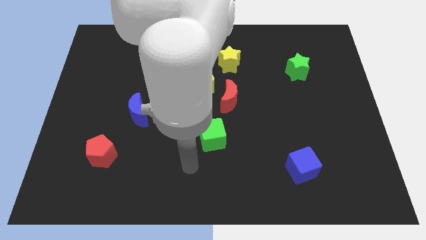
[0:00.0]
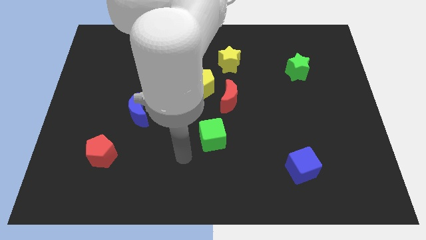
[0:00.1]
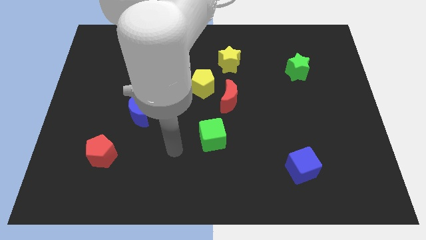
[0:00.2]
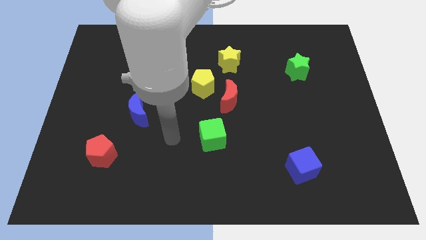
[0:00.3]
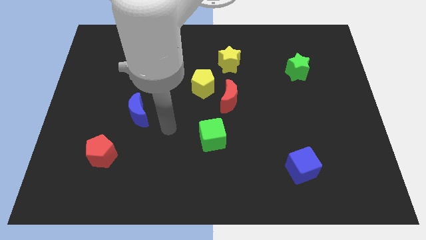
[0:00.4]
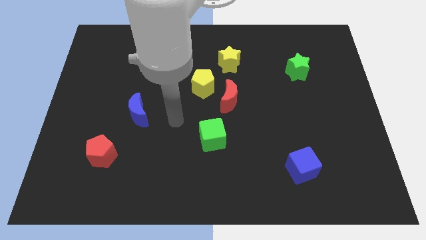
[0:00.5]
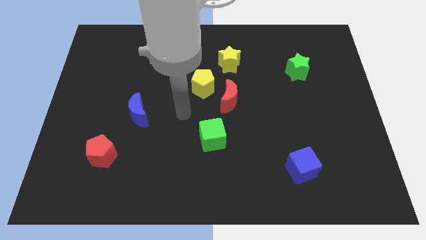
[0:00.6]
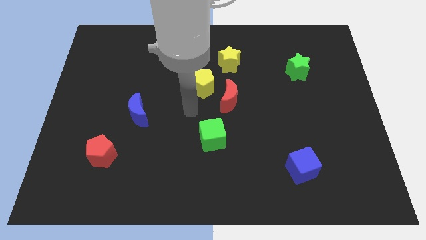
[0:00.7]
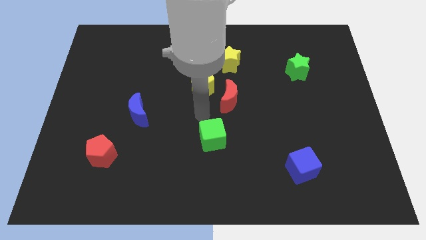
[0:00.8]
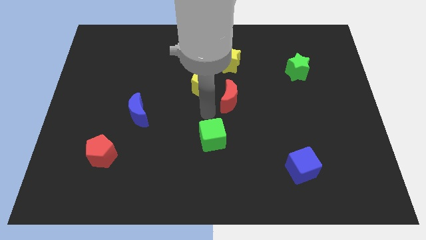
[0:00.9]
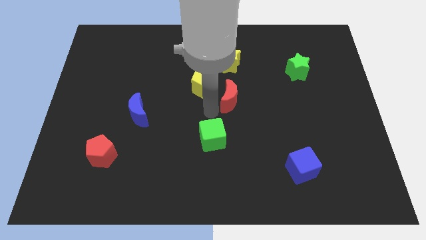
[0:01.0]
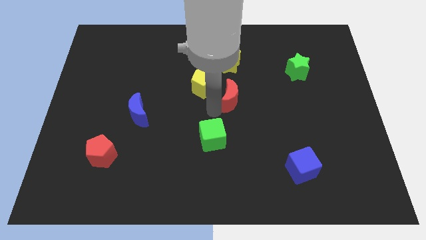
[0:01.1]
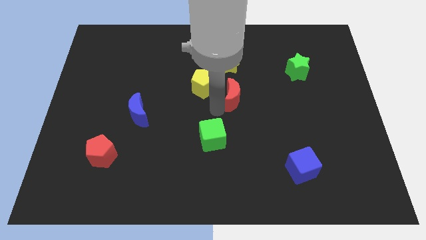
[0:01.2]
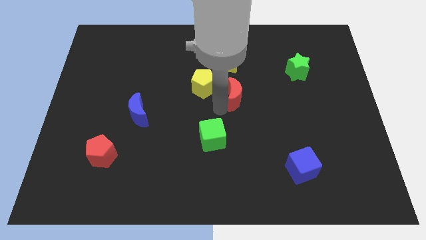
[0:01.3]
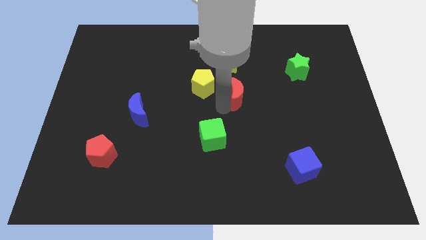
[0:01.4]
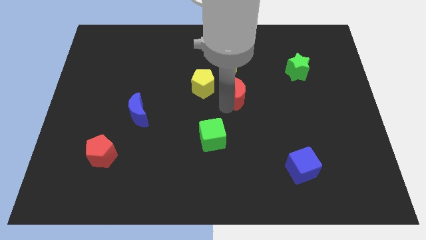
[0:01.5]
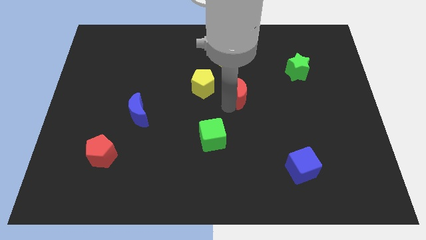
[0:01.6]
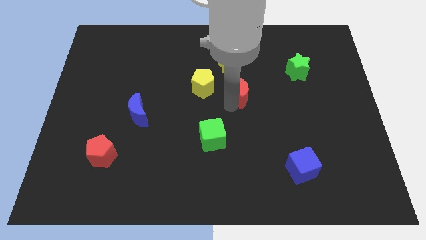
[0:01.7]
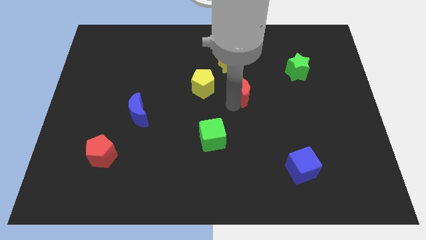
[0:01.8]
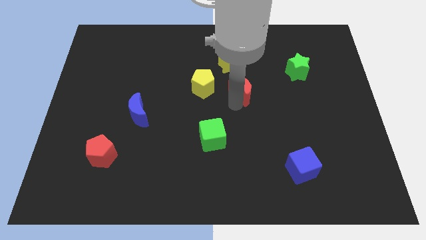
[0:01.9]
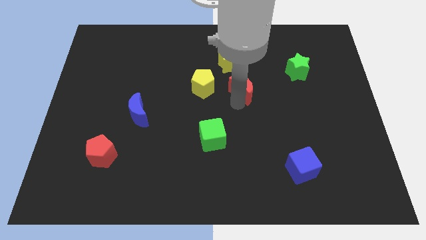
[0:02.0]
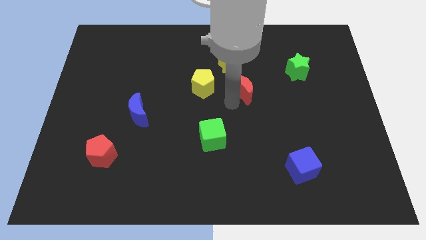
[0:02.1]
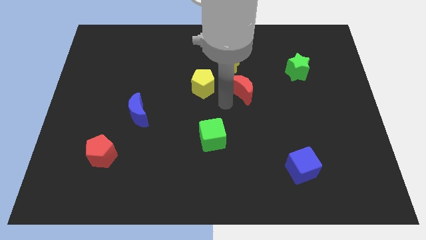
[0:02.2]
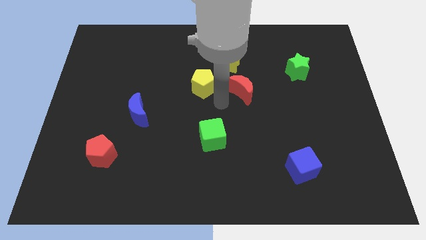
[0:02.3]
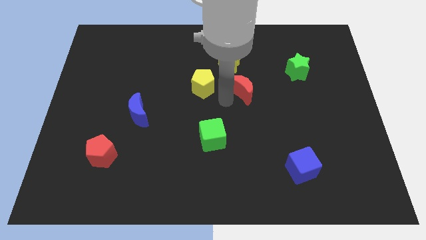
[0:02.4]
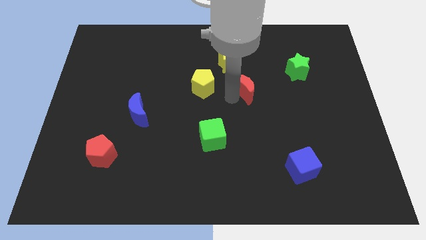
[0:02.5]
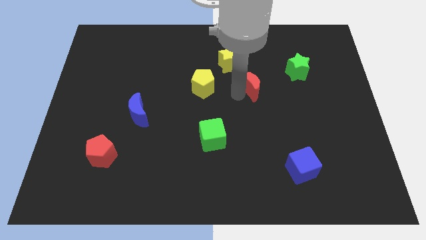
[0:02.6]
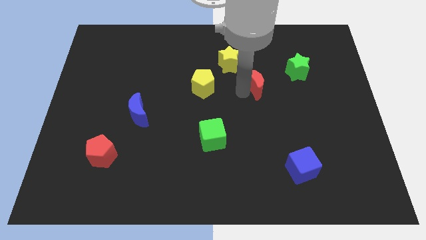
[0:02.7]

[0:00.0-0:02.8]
push the red moon a bit upwards and to the right diagonally

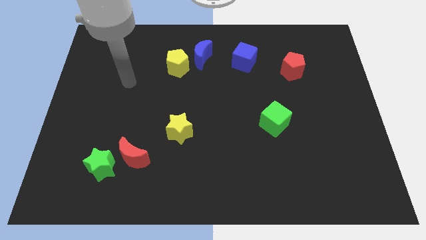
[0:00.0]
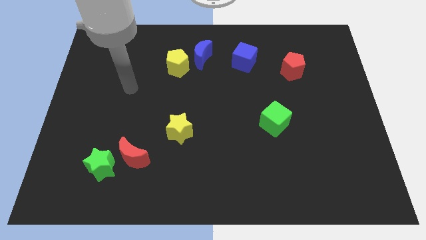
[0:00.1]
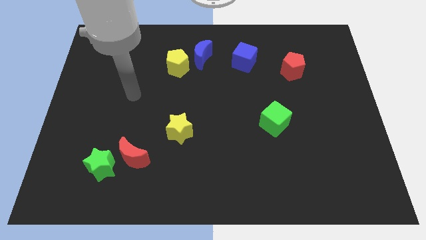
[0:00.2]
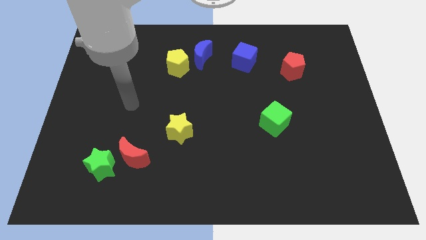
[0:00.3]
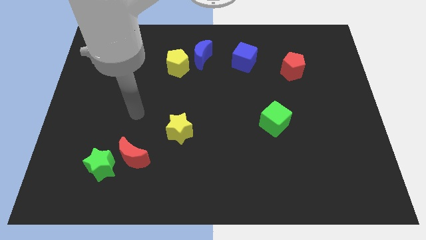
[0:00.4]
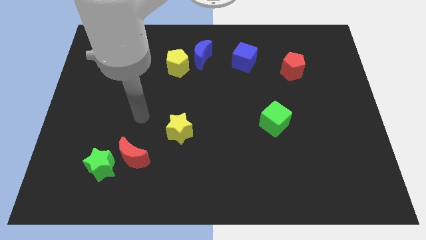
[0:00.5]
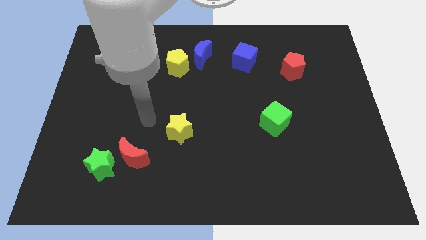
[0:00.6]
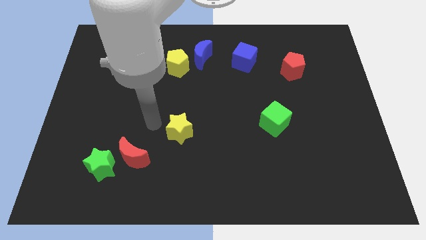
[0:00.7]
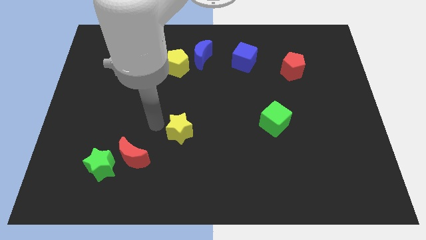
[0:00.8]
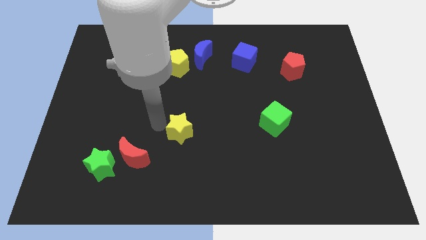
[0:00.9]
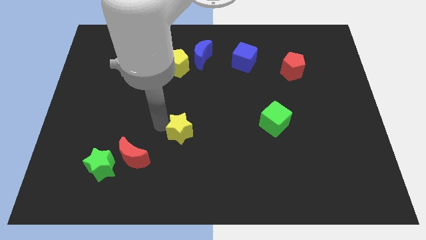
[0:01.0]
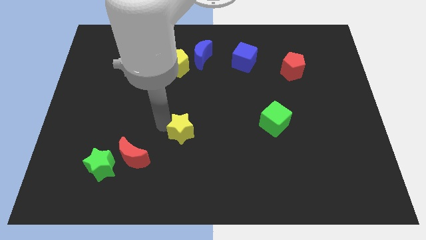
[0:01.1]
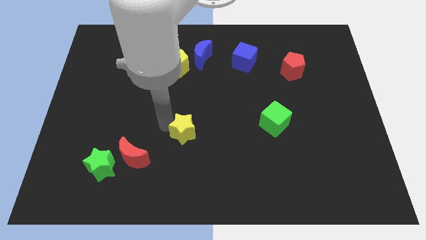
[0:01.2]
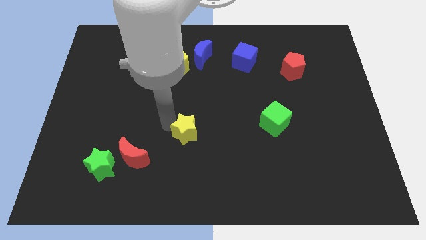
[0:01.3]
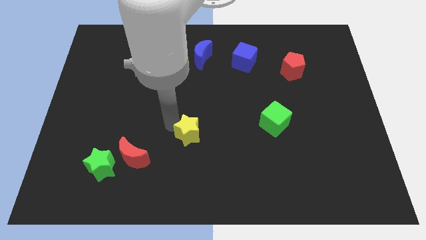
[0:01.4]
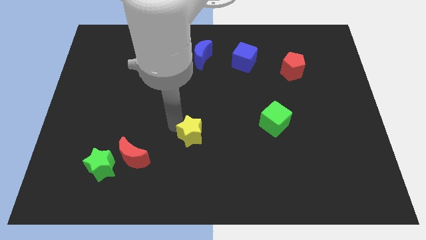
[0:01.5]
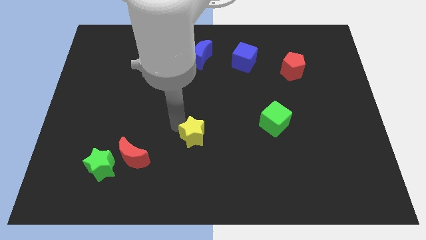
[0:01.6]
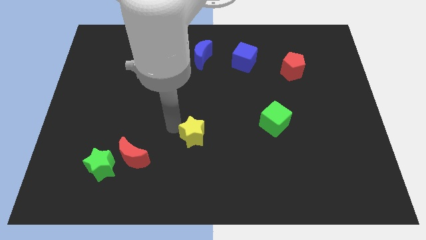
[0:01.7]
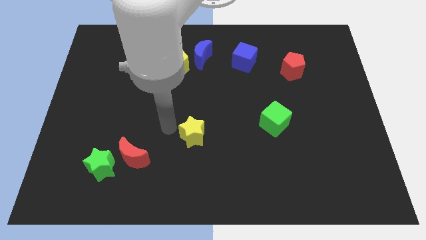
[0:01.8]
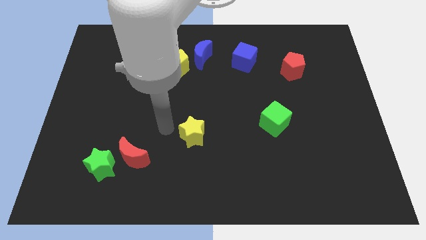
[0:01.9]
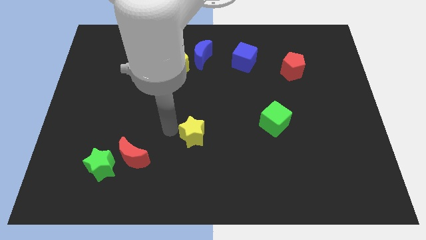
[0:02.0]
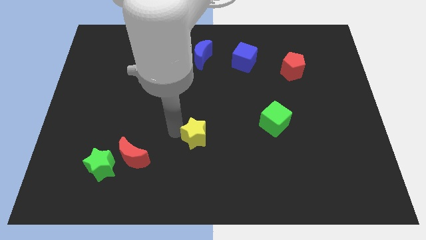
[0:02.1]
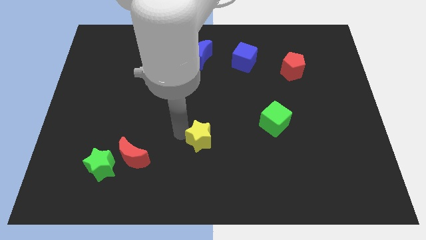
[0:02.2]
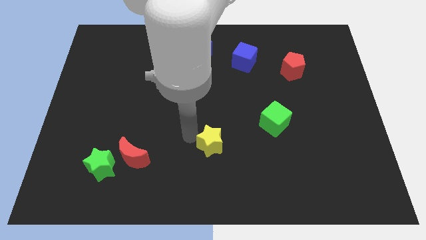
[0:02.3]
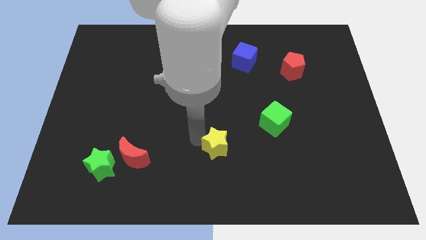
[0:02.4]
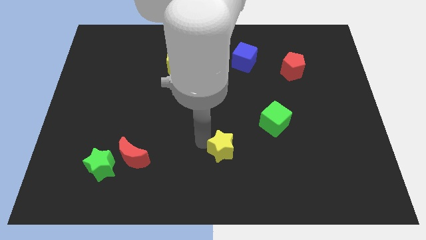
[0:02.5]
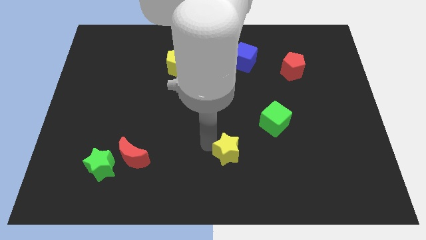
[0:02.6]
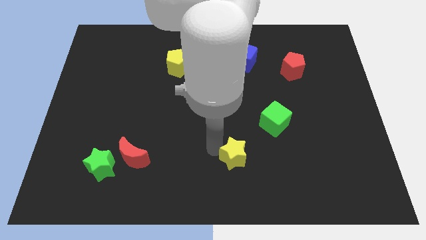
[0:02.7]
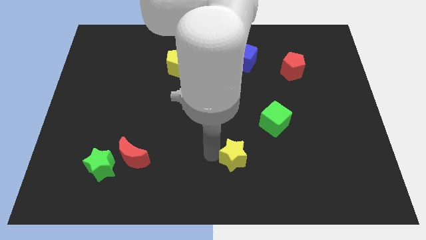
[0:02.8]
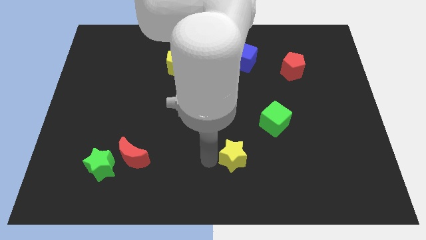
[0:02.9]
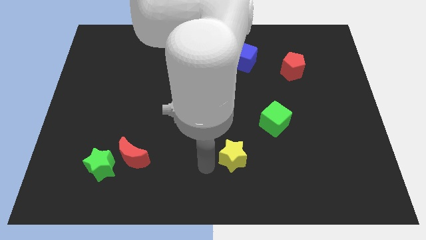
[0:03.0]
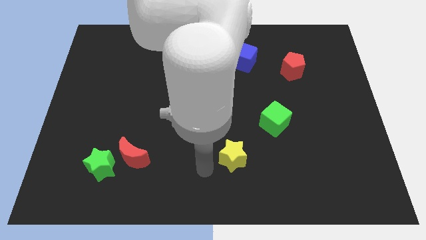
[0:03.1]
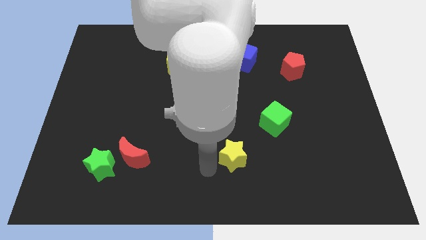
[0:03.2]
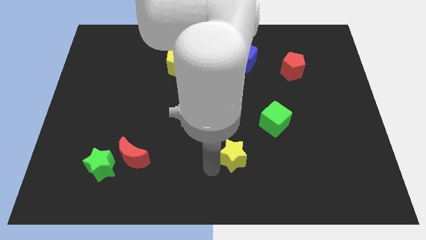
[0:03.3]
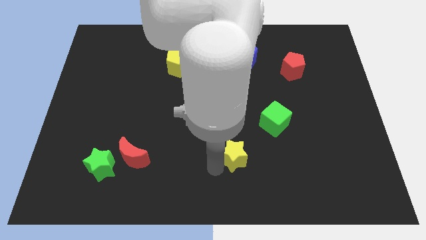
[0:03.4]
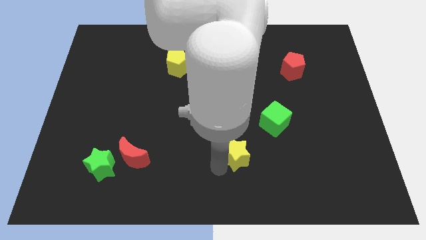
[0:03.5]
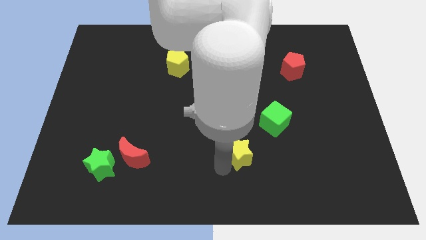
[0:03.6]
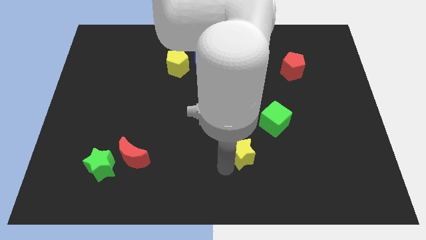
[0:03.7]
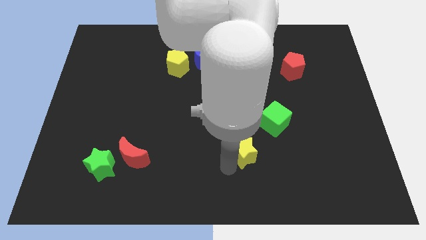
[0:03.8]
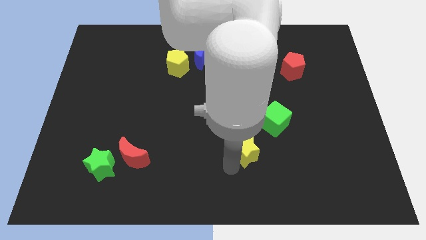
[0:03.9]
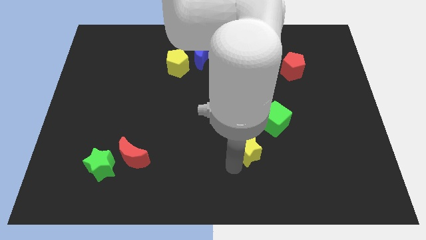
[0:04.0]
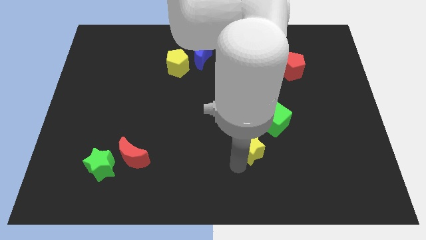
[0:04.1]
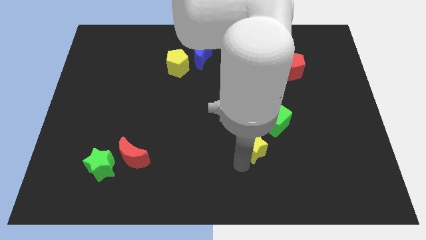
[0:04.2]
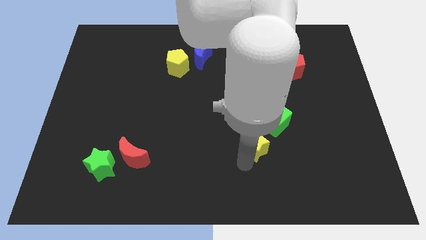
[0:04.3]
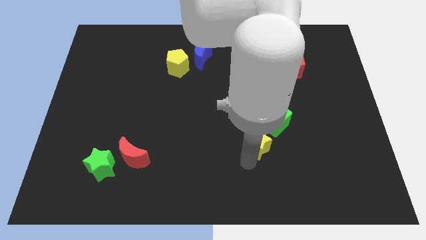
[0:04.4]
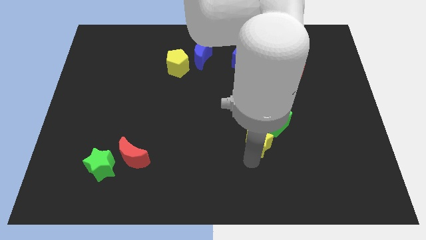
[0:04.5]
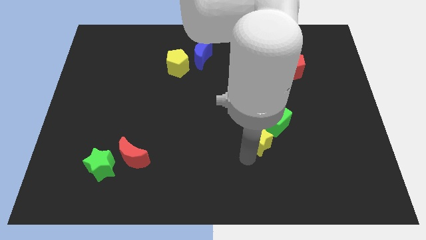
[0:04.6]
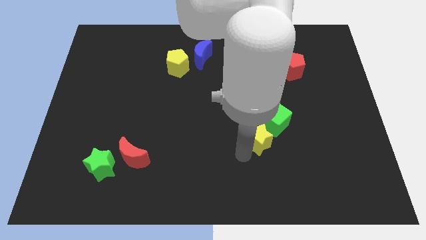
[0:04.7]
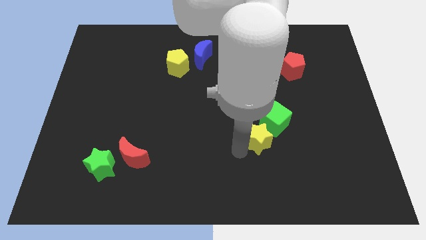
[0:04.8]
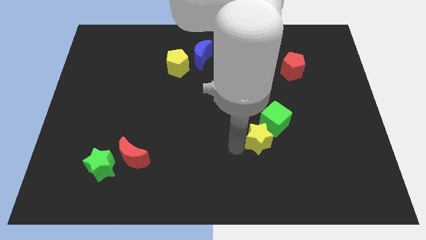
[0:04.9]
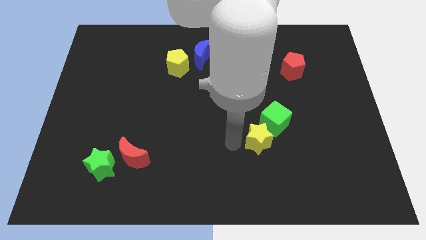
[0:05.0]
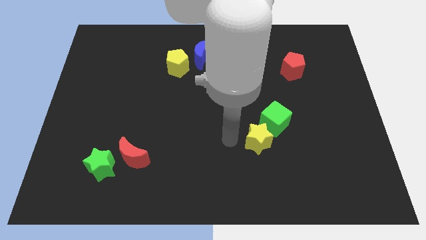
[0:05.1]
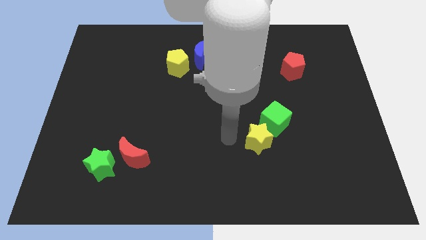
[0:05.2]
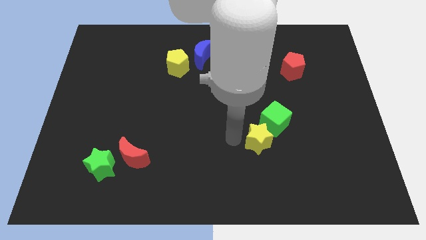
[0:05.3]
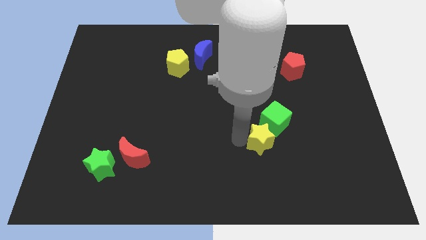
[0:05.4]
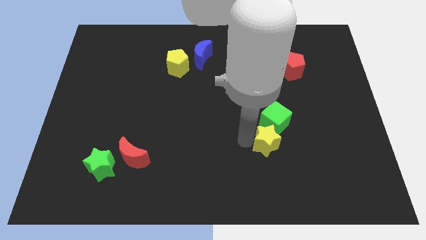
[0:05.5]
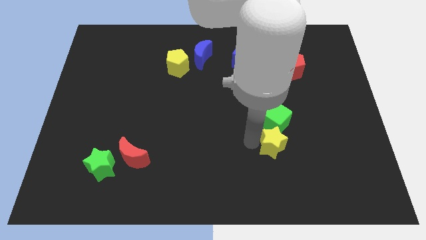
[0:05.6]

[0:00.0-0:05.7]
push the yellow star right
